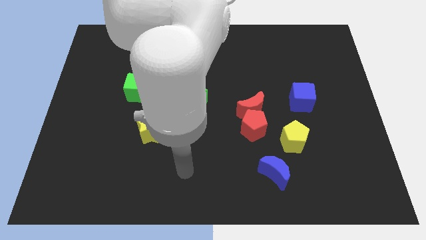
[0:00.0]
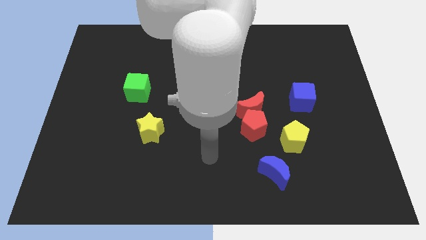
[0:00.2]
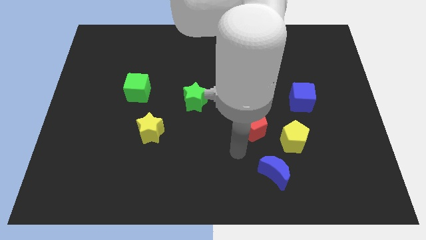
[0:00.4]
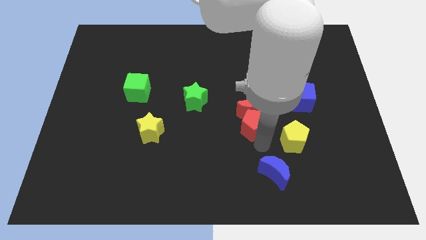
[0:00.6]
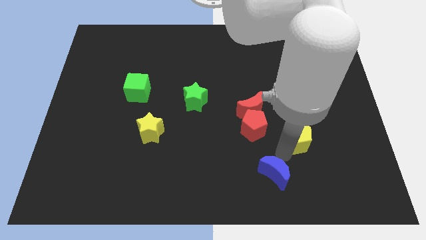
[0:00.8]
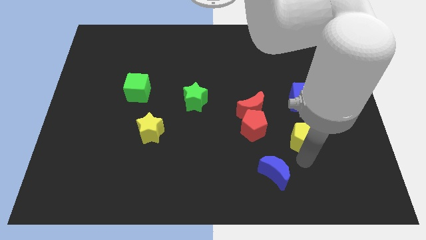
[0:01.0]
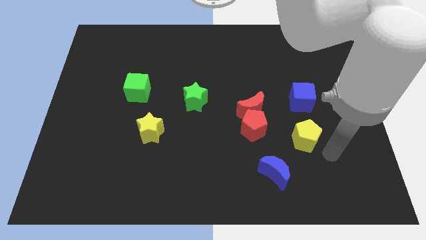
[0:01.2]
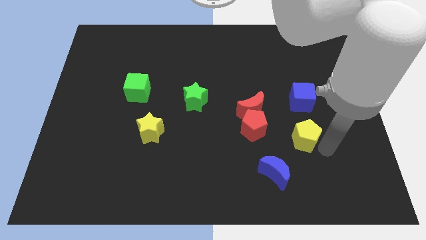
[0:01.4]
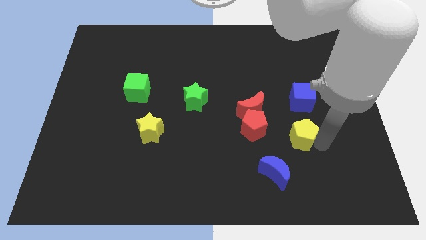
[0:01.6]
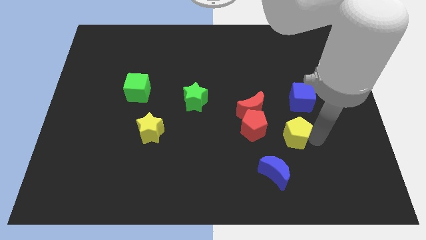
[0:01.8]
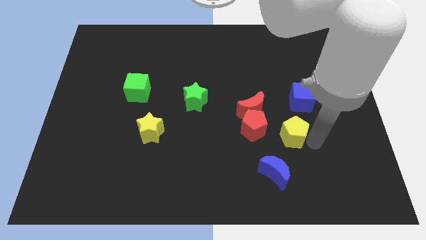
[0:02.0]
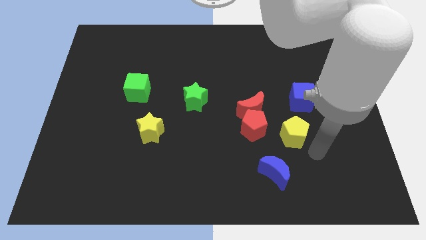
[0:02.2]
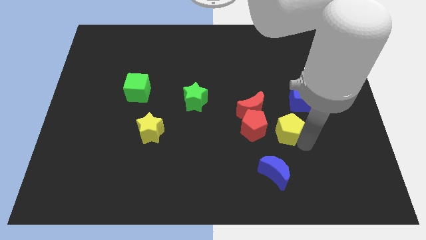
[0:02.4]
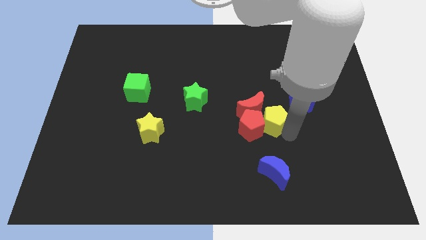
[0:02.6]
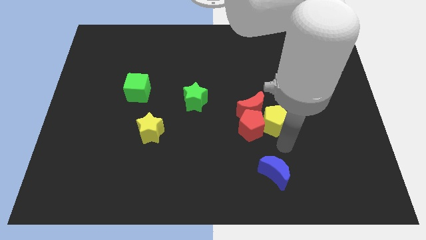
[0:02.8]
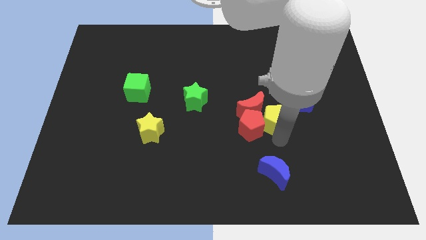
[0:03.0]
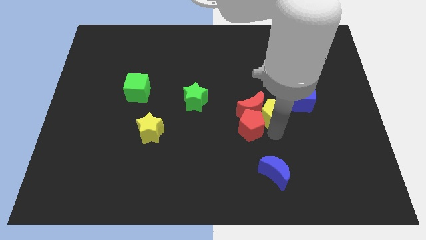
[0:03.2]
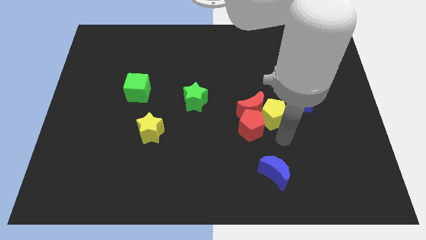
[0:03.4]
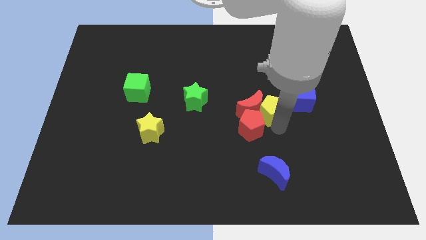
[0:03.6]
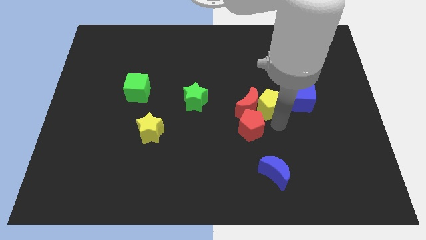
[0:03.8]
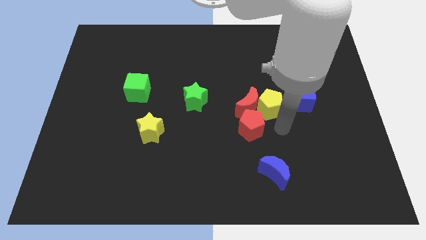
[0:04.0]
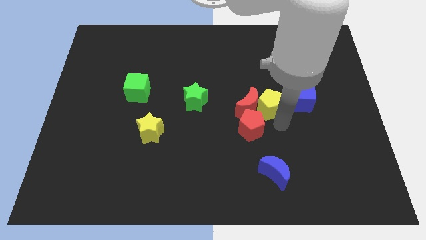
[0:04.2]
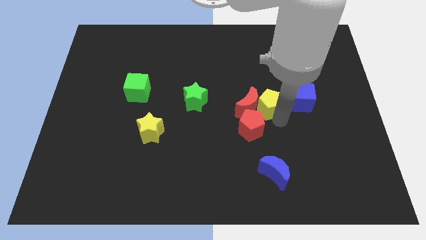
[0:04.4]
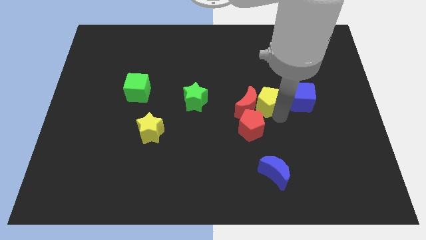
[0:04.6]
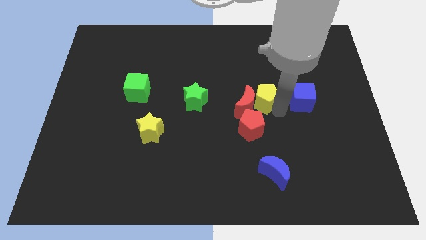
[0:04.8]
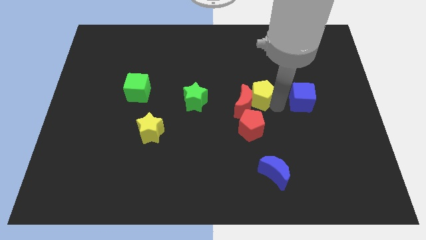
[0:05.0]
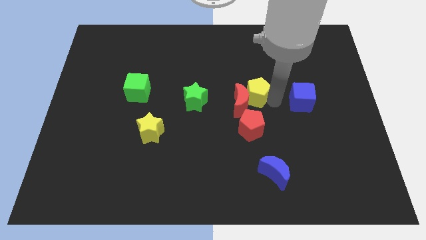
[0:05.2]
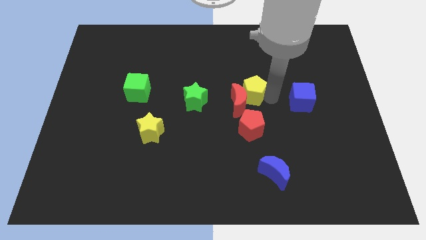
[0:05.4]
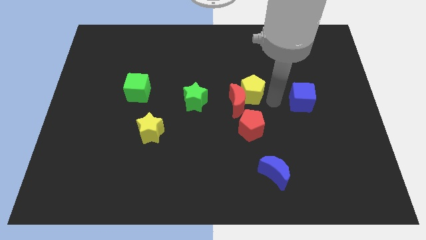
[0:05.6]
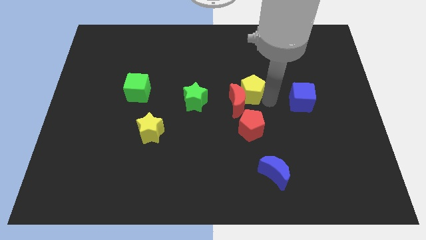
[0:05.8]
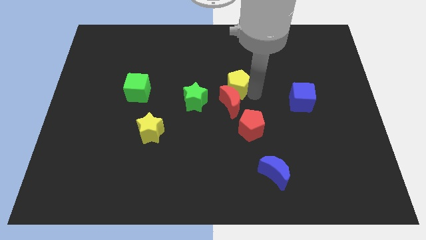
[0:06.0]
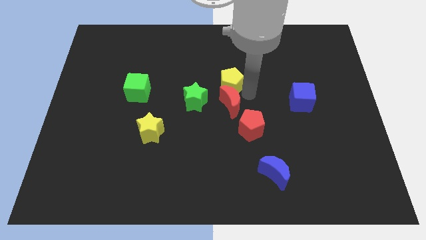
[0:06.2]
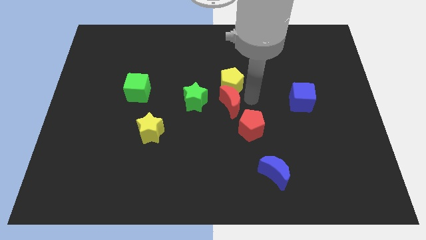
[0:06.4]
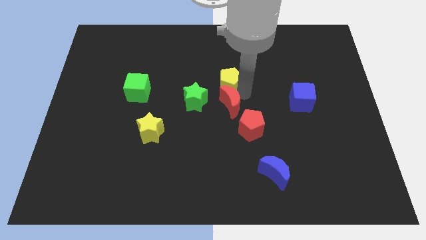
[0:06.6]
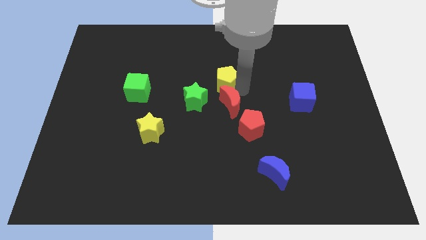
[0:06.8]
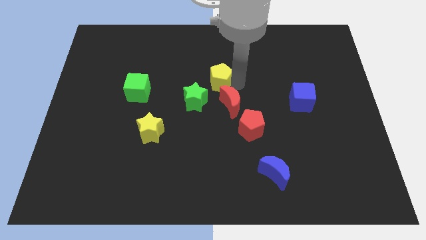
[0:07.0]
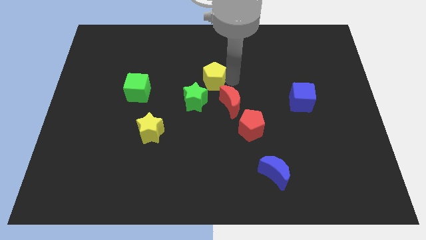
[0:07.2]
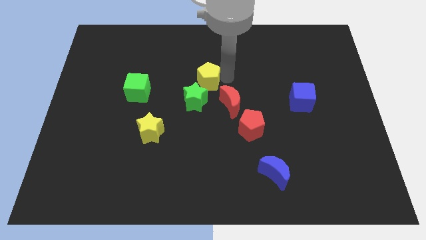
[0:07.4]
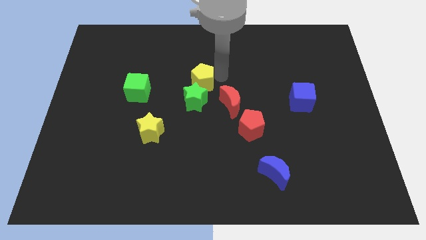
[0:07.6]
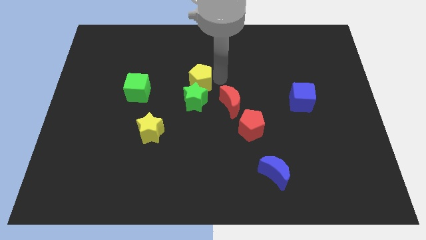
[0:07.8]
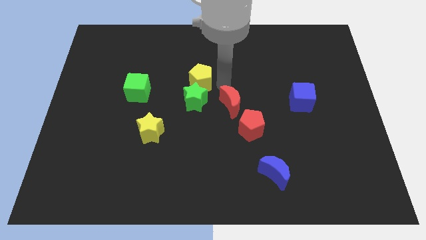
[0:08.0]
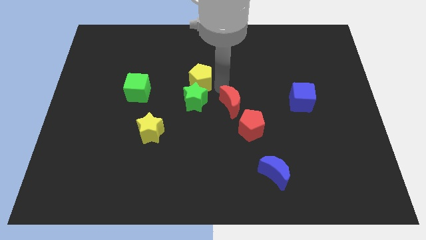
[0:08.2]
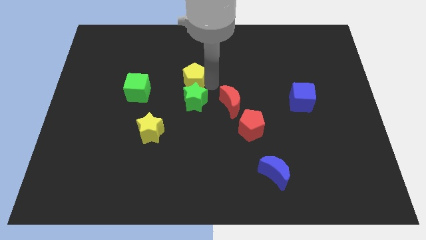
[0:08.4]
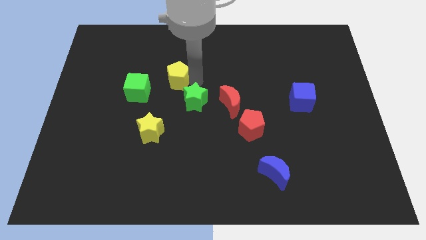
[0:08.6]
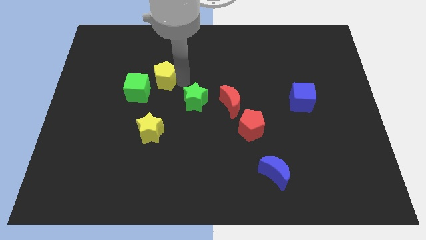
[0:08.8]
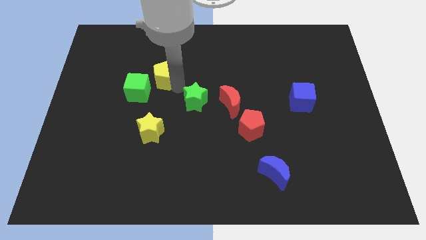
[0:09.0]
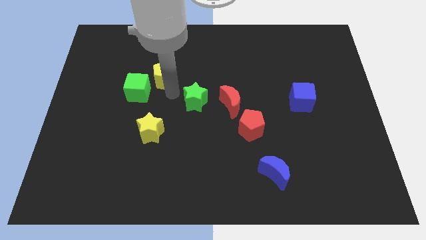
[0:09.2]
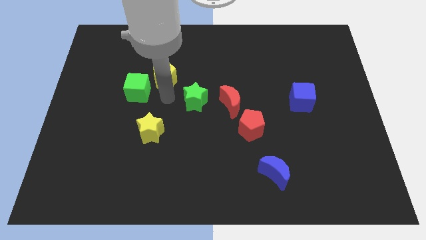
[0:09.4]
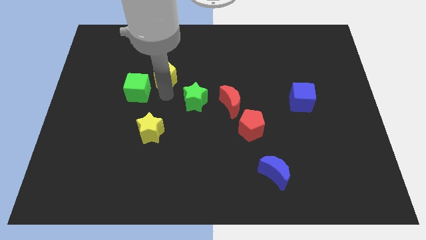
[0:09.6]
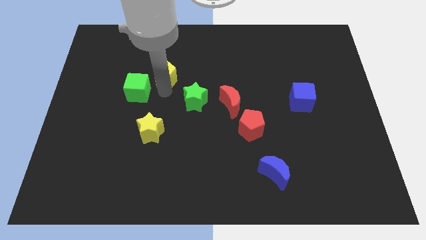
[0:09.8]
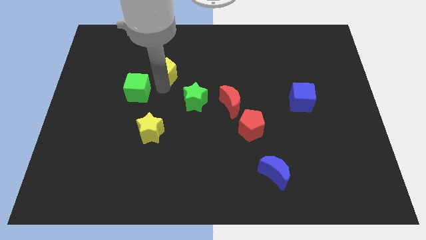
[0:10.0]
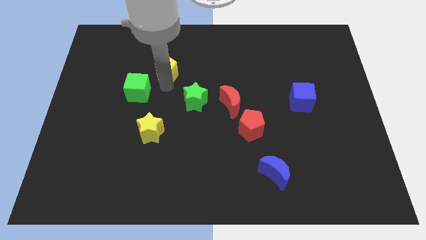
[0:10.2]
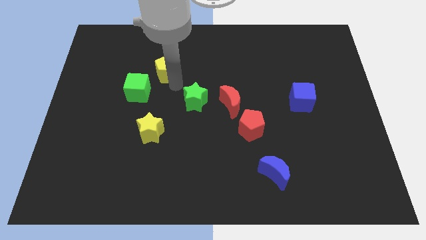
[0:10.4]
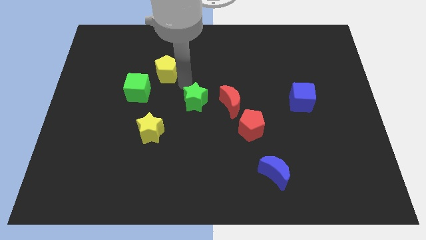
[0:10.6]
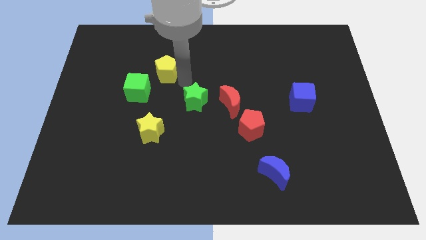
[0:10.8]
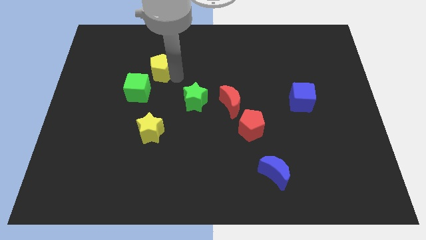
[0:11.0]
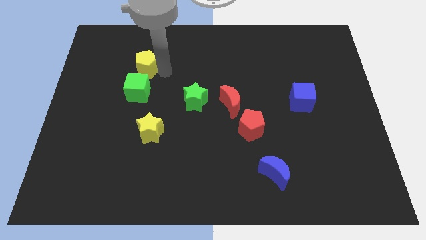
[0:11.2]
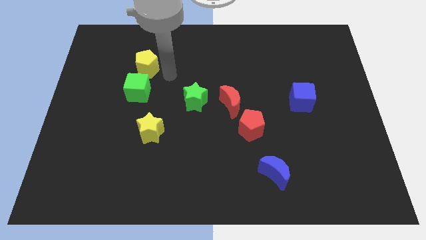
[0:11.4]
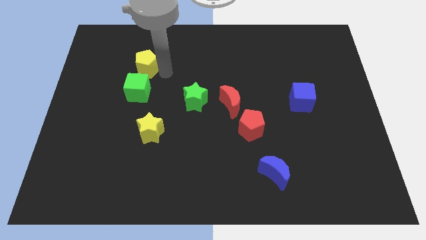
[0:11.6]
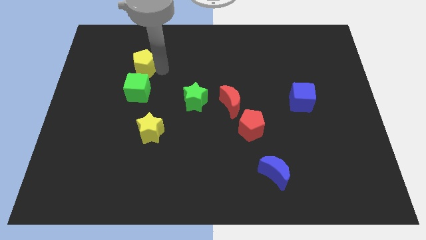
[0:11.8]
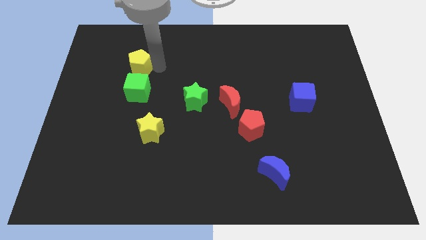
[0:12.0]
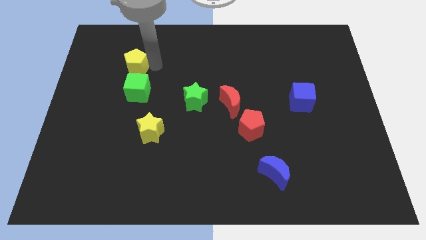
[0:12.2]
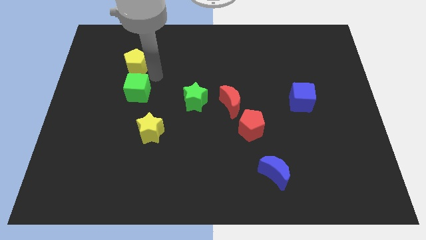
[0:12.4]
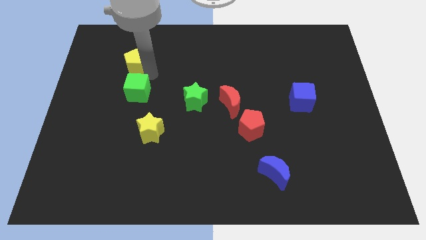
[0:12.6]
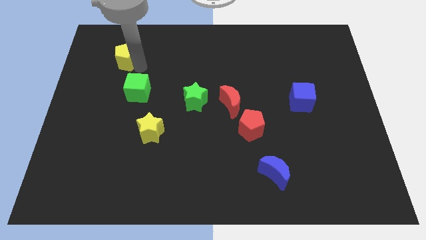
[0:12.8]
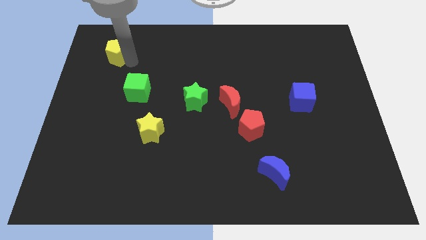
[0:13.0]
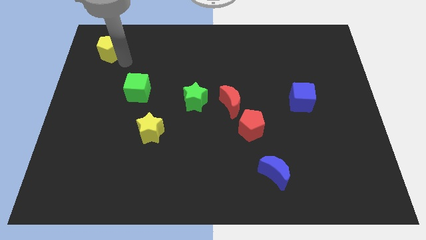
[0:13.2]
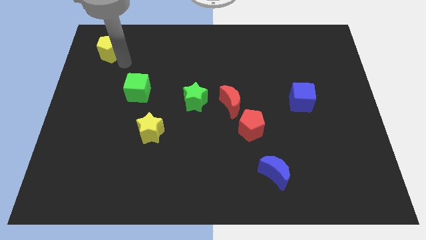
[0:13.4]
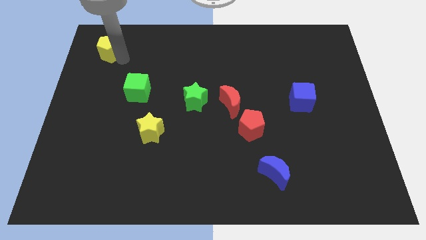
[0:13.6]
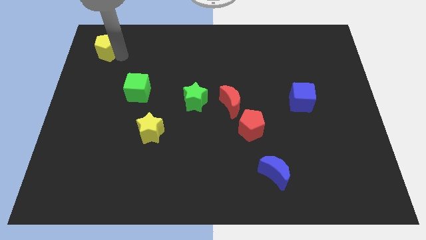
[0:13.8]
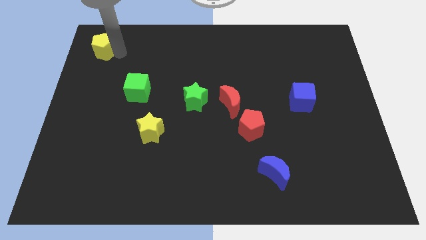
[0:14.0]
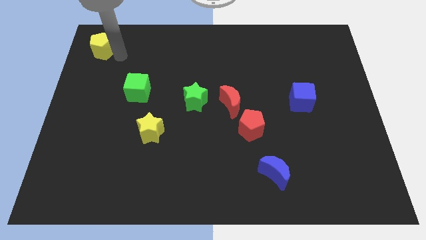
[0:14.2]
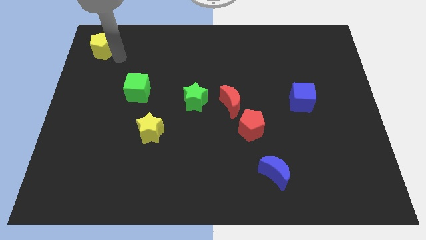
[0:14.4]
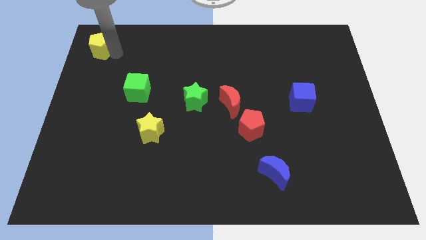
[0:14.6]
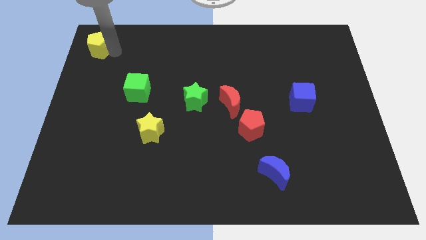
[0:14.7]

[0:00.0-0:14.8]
put the yellow pentagon to the top left of the board
